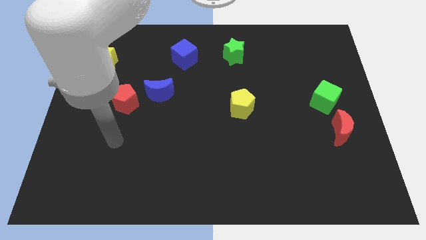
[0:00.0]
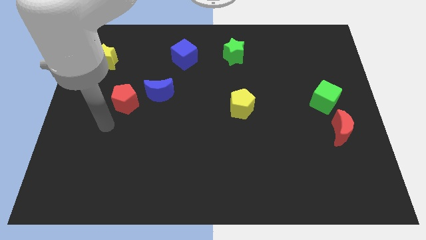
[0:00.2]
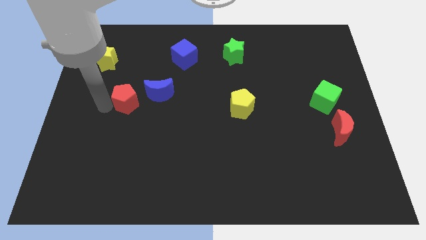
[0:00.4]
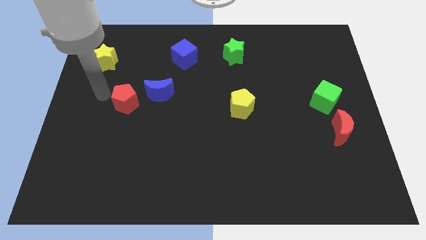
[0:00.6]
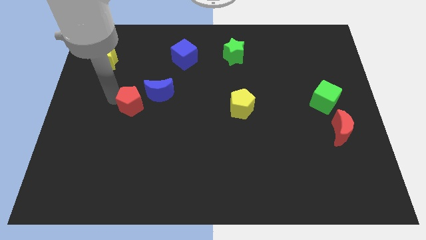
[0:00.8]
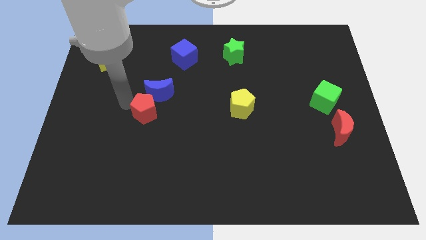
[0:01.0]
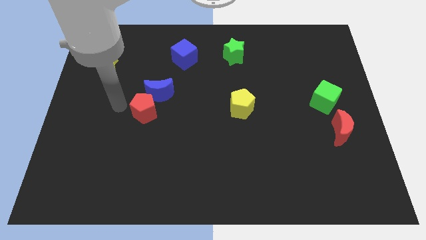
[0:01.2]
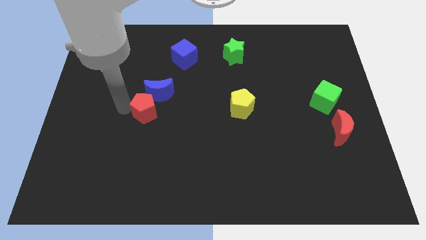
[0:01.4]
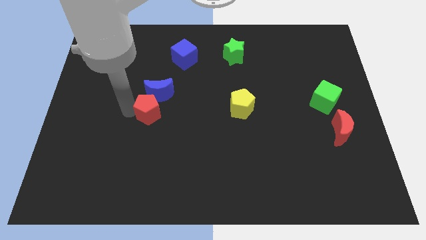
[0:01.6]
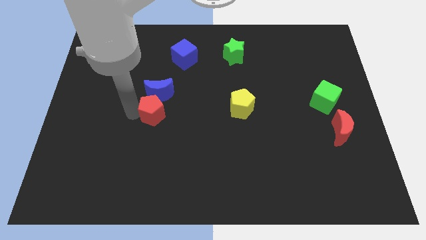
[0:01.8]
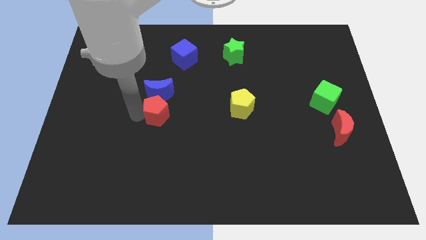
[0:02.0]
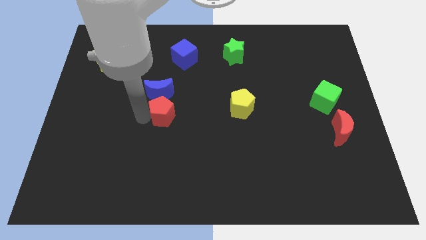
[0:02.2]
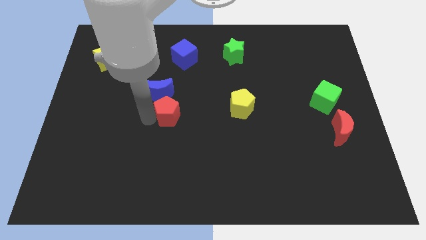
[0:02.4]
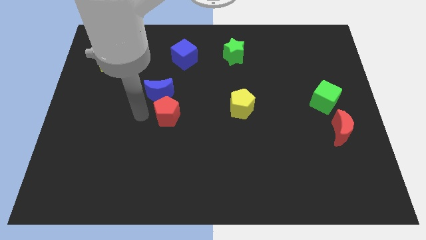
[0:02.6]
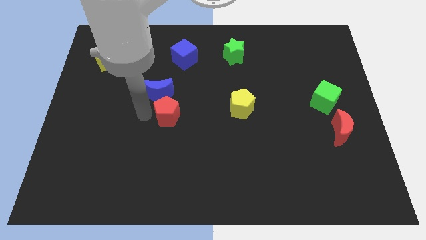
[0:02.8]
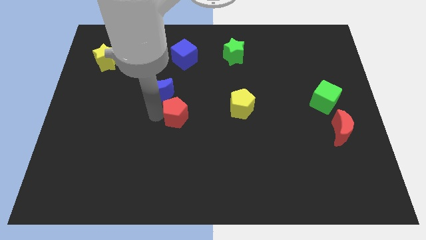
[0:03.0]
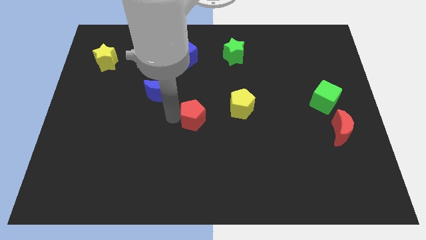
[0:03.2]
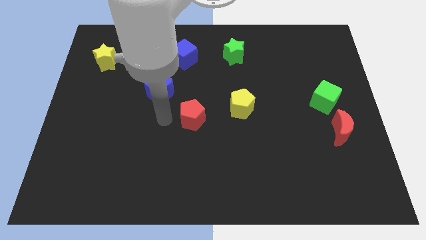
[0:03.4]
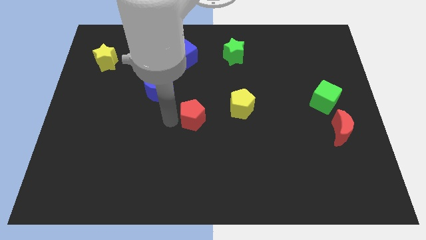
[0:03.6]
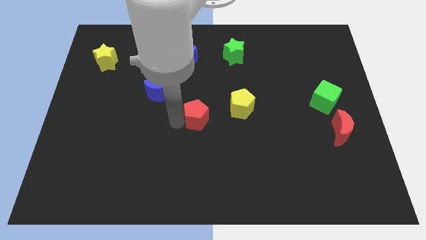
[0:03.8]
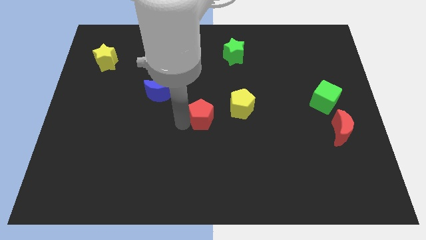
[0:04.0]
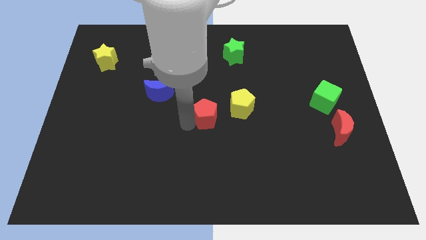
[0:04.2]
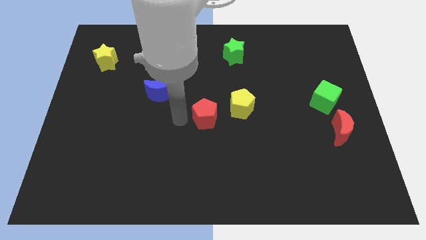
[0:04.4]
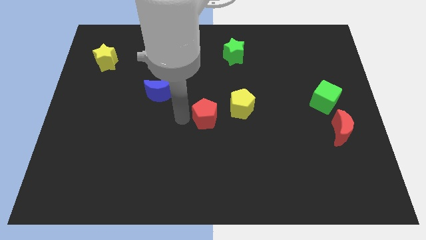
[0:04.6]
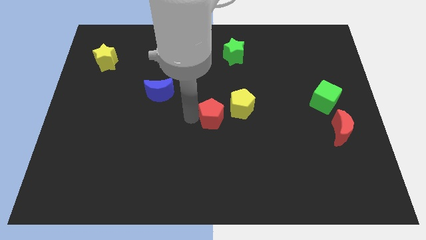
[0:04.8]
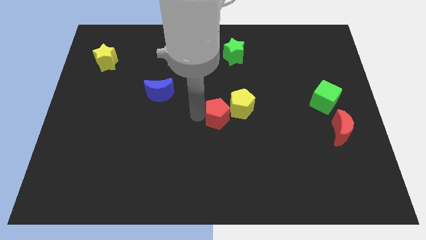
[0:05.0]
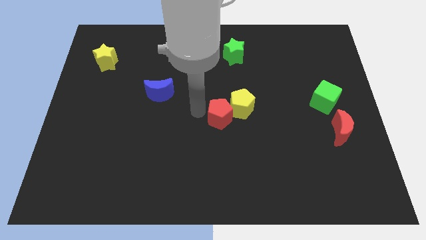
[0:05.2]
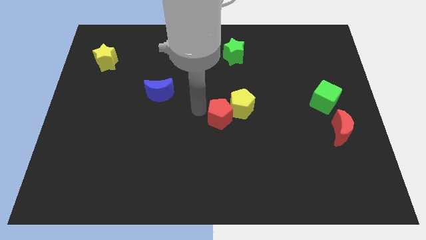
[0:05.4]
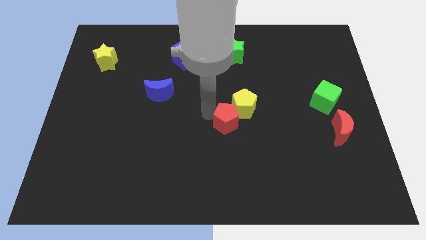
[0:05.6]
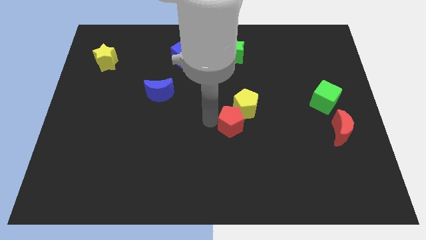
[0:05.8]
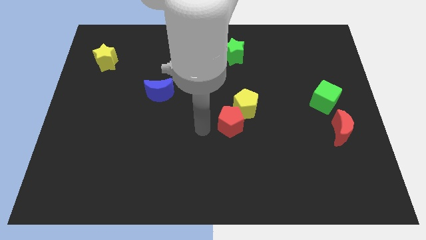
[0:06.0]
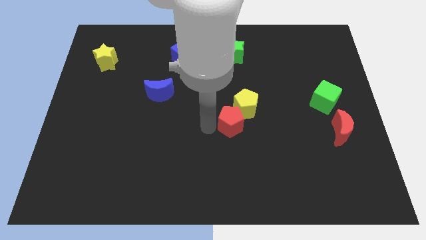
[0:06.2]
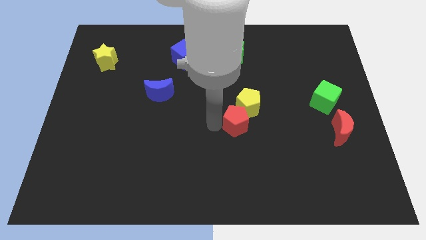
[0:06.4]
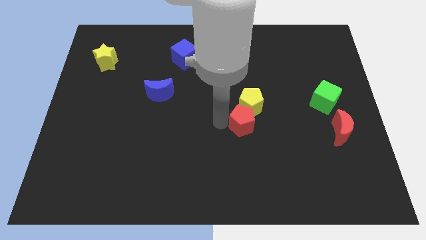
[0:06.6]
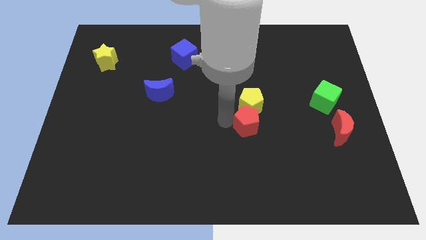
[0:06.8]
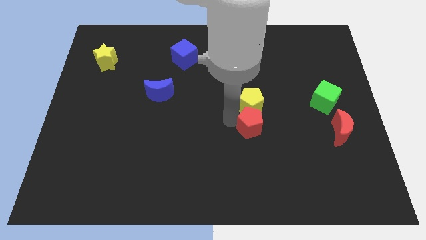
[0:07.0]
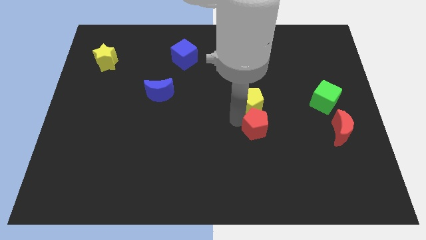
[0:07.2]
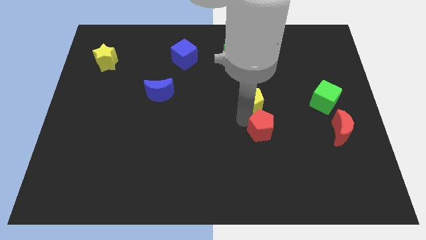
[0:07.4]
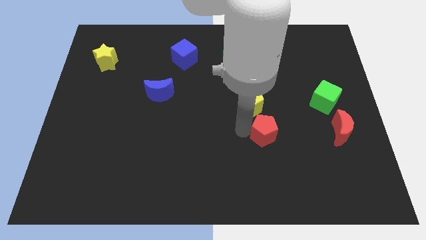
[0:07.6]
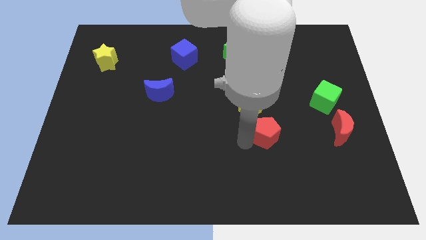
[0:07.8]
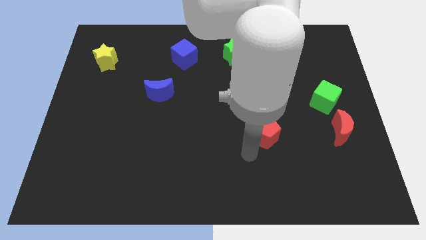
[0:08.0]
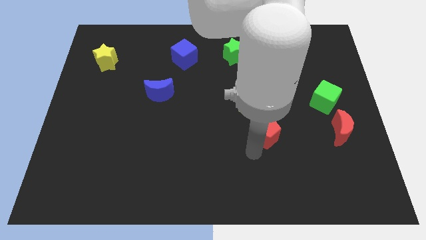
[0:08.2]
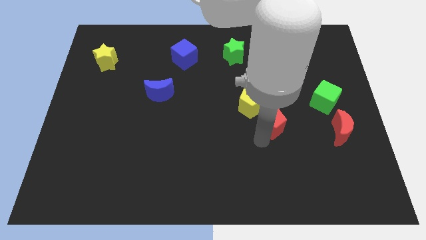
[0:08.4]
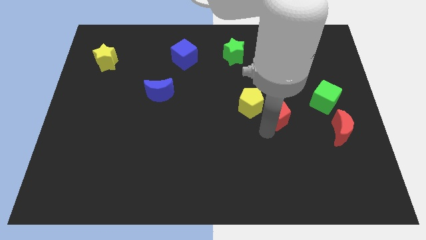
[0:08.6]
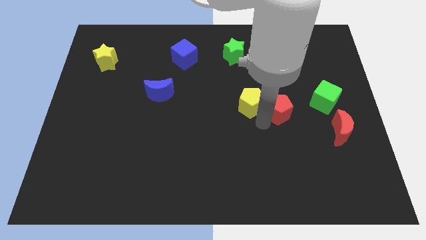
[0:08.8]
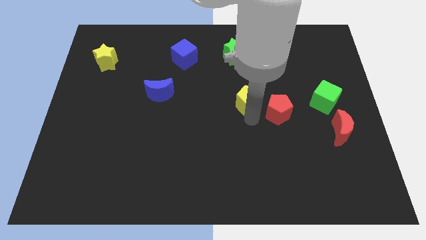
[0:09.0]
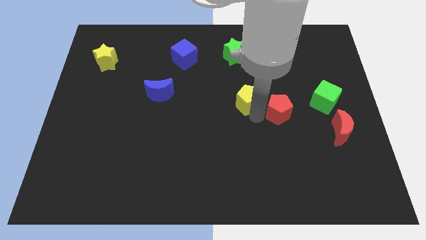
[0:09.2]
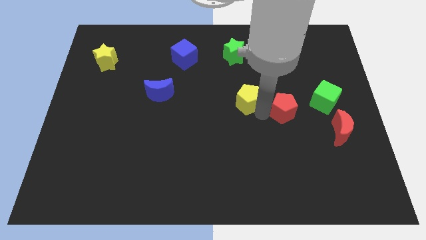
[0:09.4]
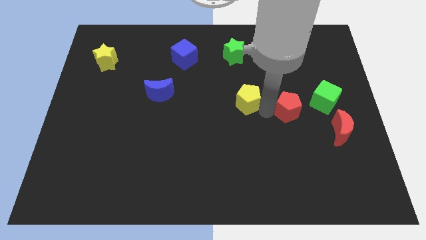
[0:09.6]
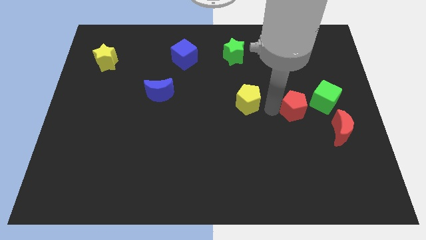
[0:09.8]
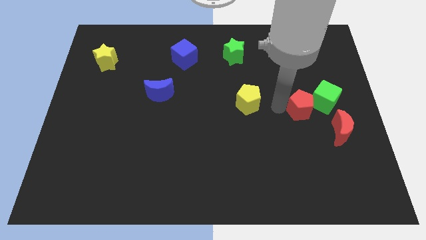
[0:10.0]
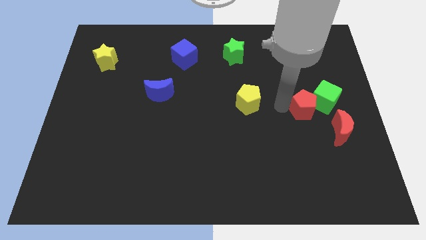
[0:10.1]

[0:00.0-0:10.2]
slide the red pentagon next to the green cube

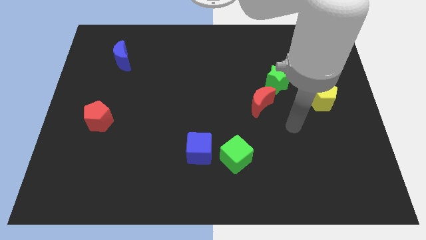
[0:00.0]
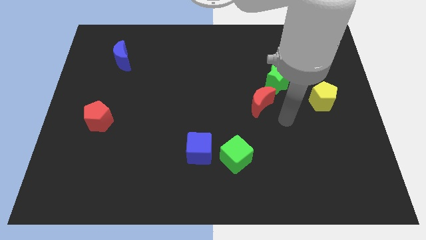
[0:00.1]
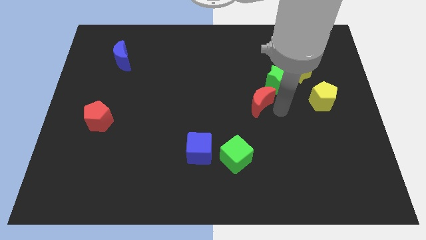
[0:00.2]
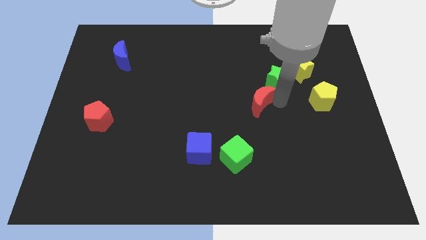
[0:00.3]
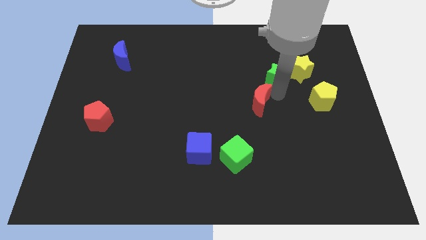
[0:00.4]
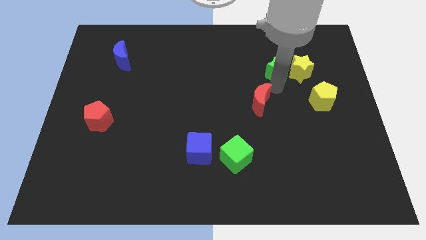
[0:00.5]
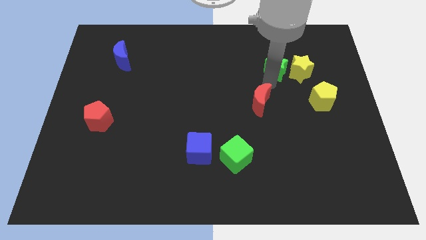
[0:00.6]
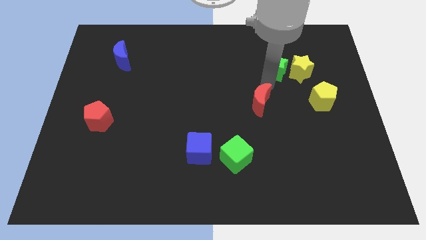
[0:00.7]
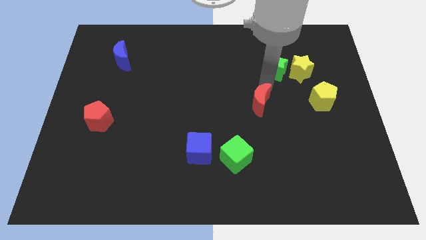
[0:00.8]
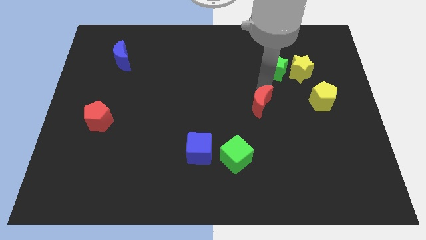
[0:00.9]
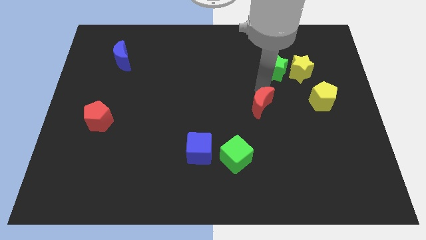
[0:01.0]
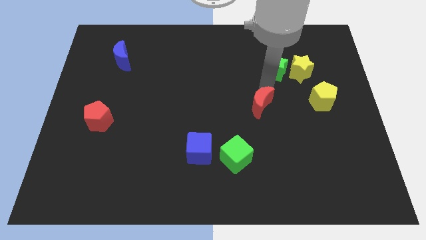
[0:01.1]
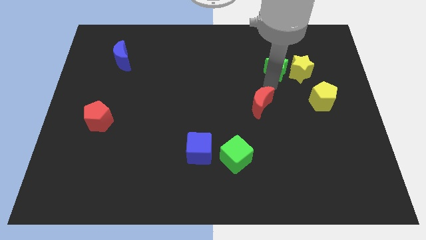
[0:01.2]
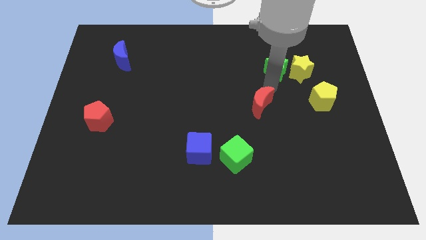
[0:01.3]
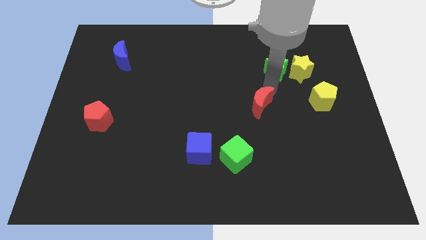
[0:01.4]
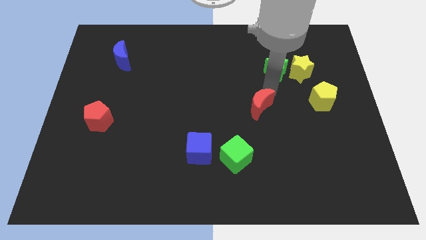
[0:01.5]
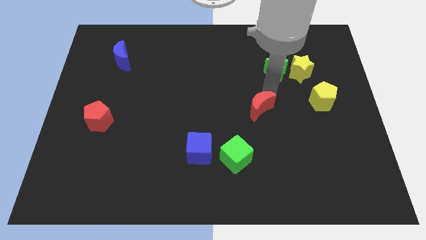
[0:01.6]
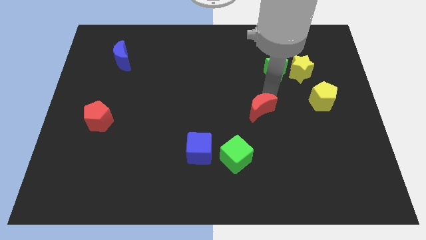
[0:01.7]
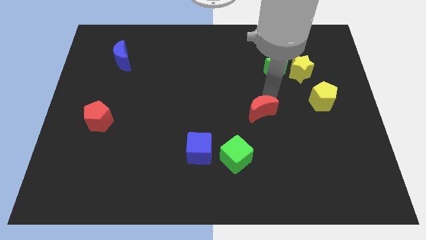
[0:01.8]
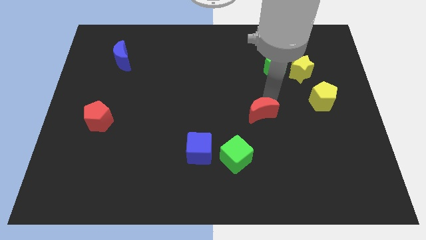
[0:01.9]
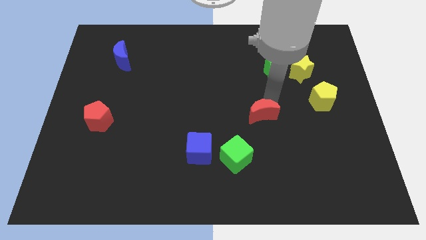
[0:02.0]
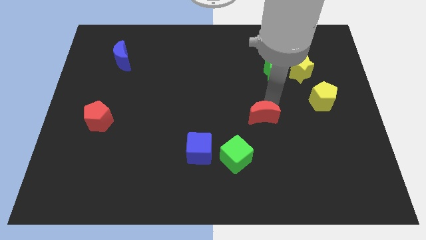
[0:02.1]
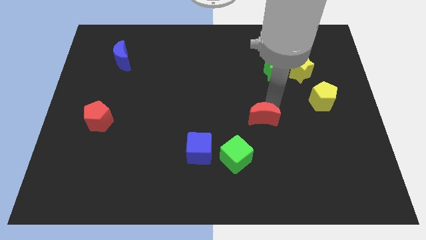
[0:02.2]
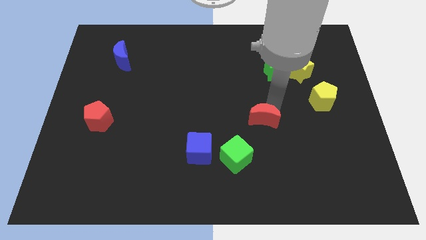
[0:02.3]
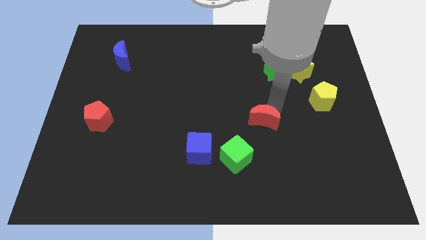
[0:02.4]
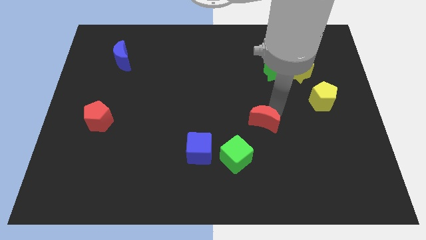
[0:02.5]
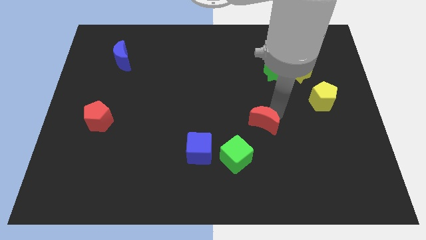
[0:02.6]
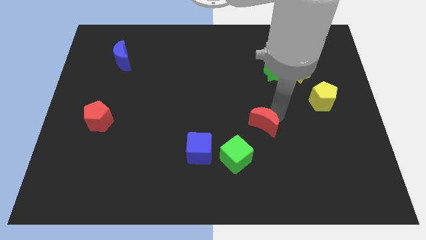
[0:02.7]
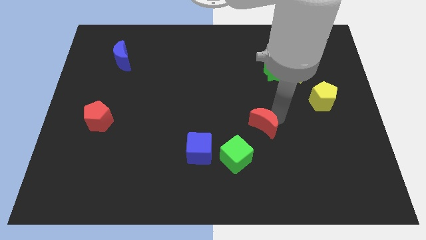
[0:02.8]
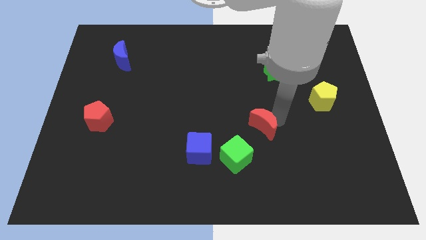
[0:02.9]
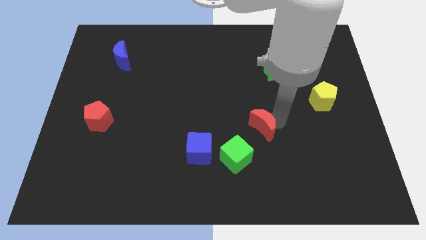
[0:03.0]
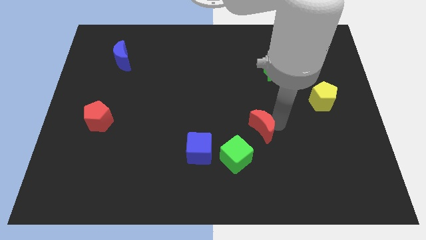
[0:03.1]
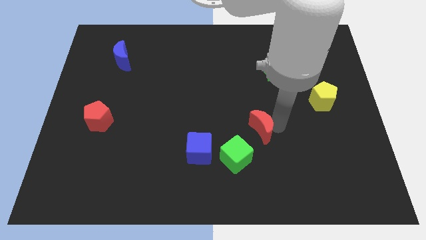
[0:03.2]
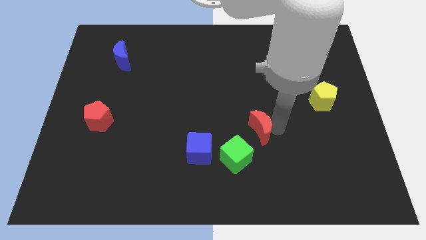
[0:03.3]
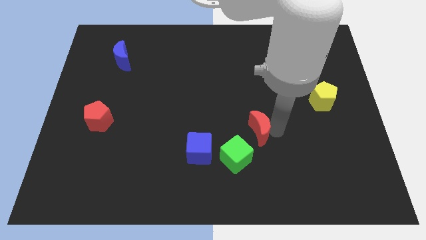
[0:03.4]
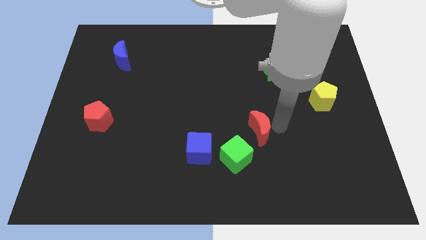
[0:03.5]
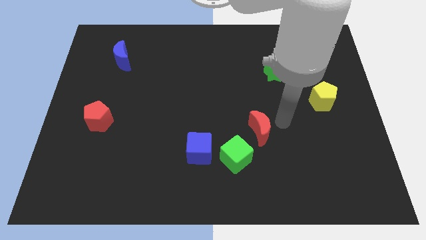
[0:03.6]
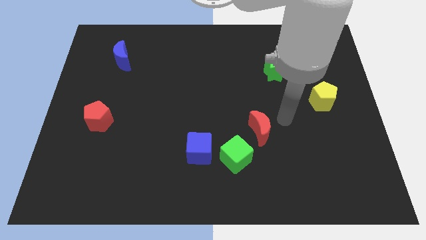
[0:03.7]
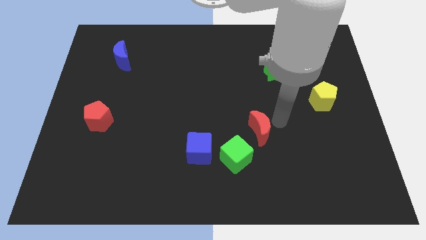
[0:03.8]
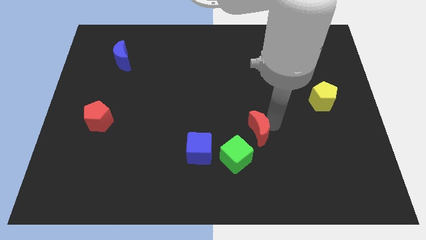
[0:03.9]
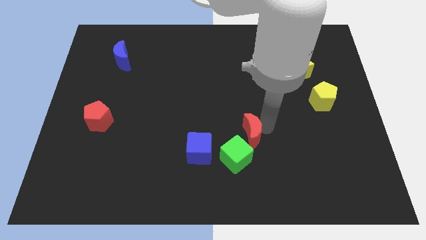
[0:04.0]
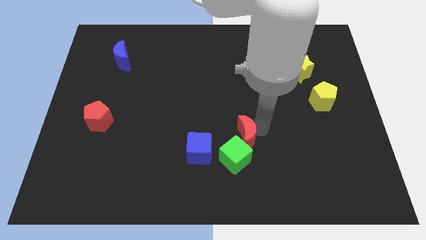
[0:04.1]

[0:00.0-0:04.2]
move the red moon to the green cube
